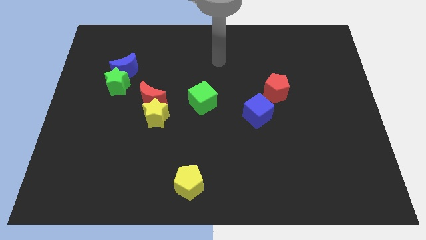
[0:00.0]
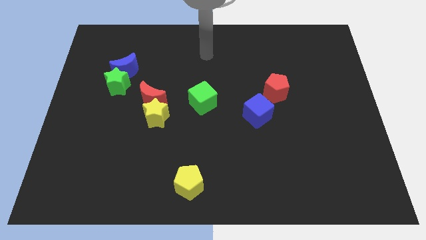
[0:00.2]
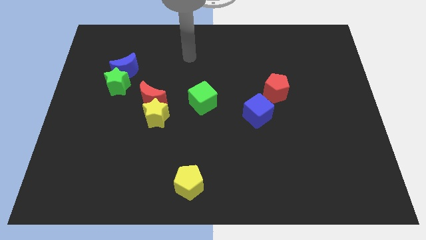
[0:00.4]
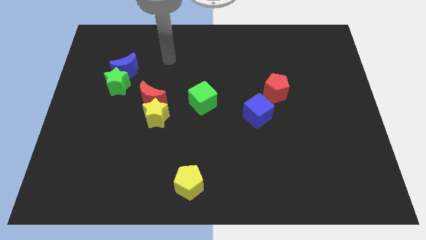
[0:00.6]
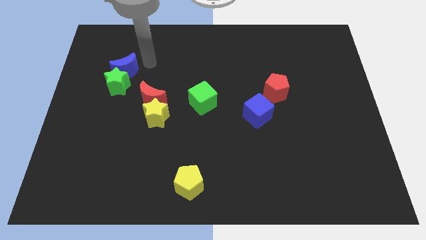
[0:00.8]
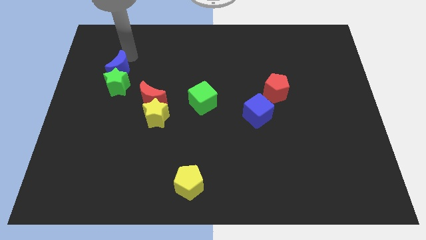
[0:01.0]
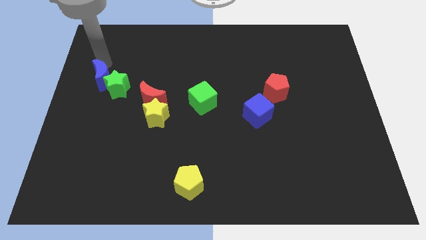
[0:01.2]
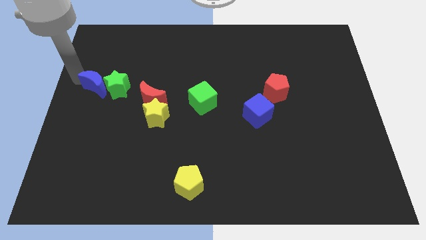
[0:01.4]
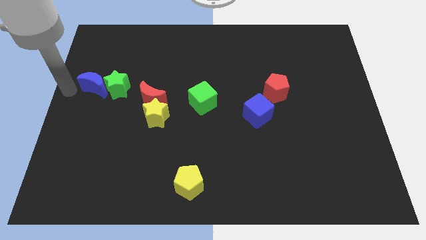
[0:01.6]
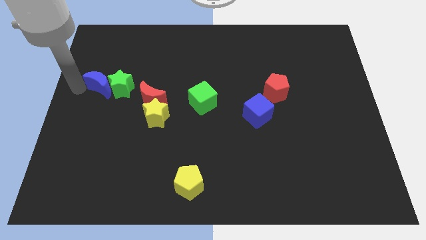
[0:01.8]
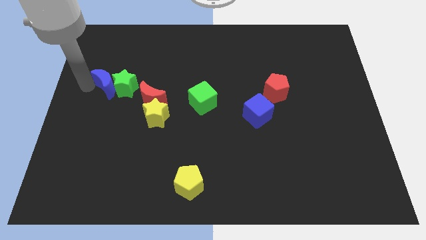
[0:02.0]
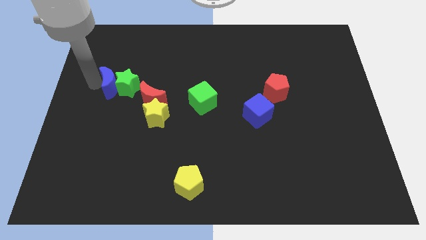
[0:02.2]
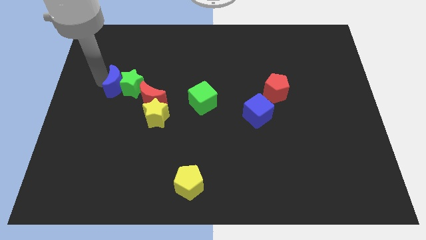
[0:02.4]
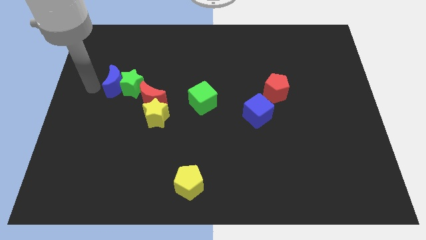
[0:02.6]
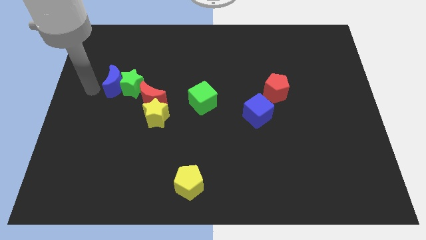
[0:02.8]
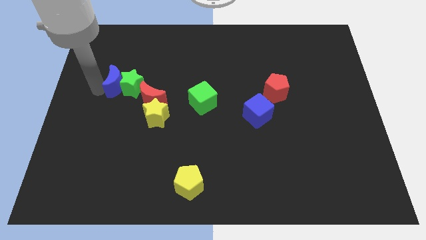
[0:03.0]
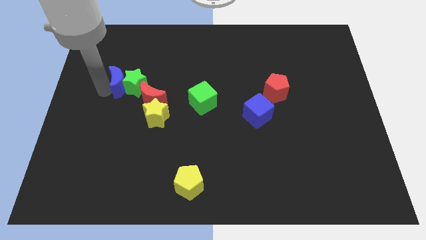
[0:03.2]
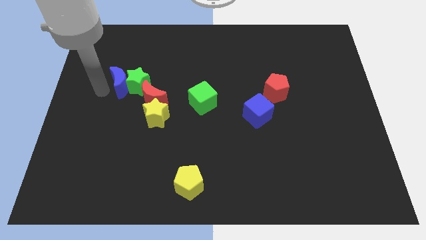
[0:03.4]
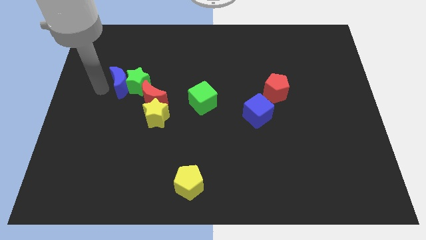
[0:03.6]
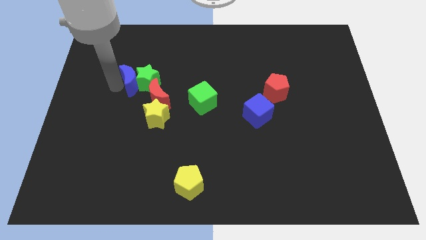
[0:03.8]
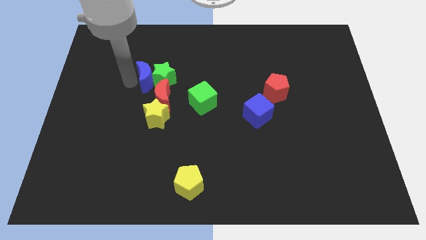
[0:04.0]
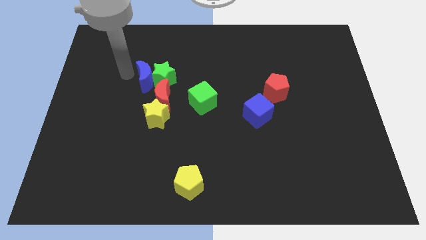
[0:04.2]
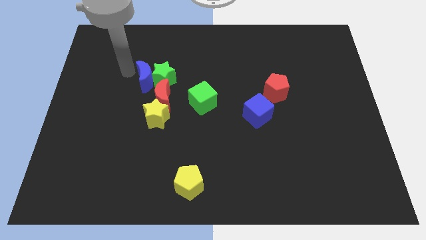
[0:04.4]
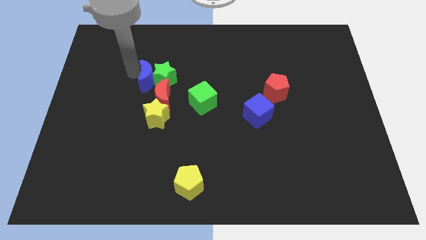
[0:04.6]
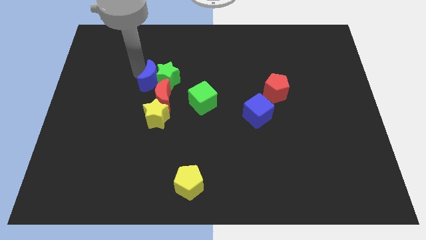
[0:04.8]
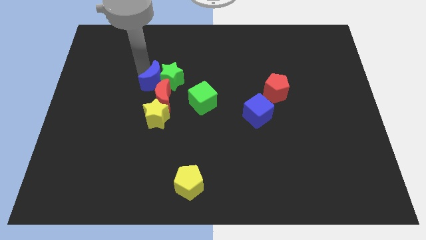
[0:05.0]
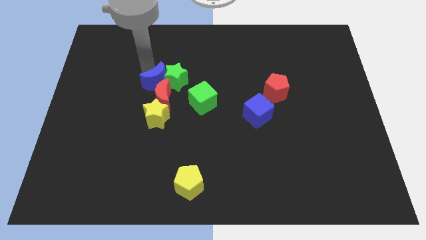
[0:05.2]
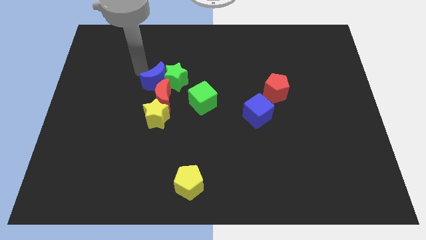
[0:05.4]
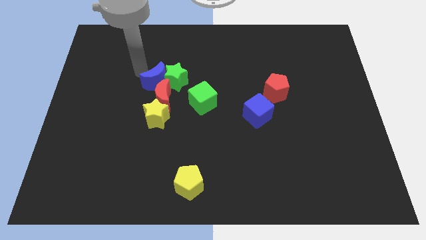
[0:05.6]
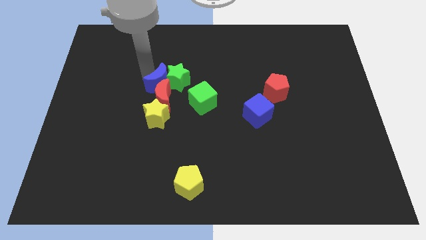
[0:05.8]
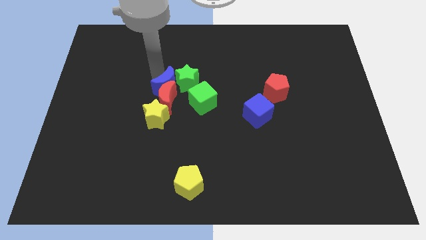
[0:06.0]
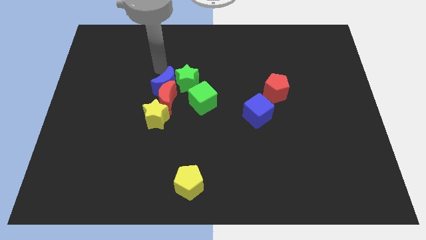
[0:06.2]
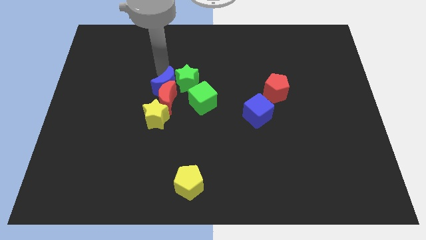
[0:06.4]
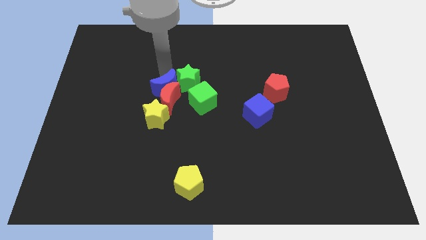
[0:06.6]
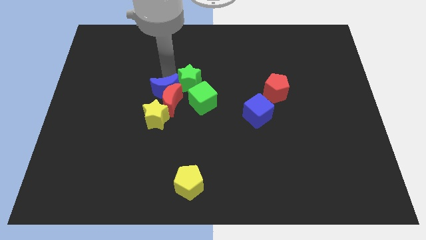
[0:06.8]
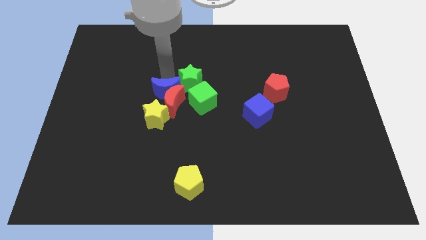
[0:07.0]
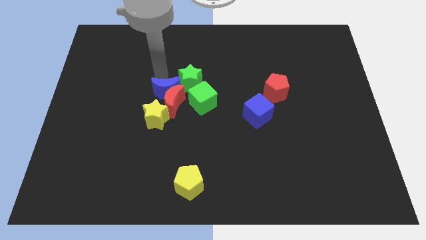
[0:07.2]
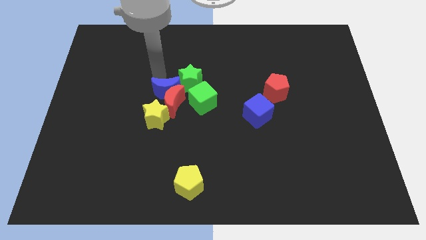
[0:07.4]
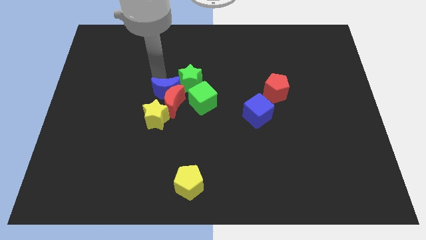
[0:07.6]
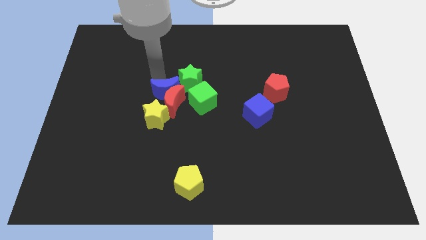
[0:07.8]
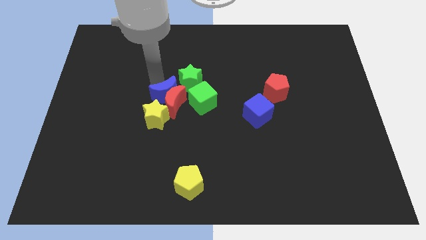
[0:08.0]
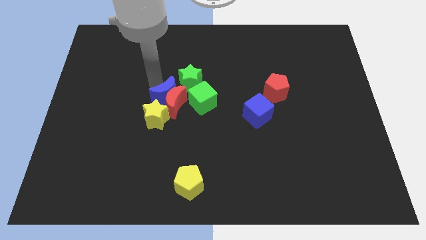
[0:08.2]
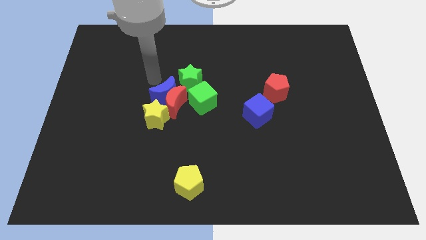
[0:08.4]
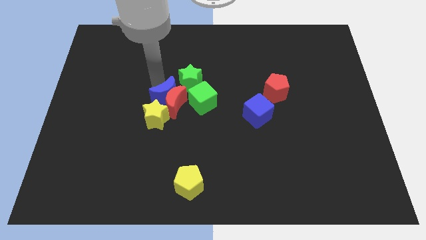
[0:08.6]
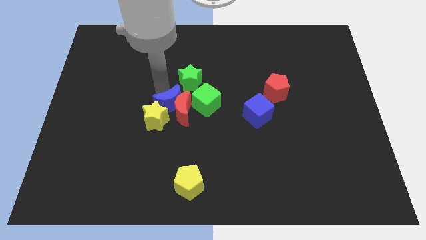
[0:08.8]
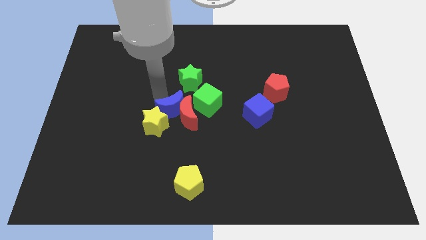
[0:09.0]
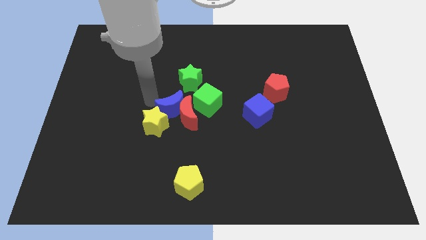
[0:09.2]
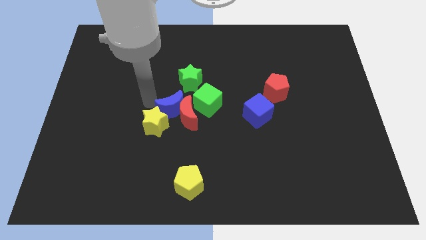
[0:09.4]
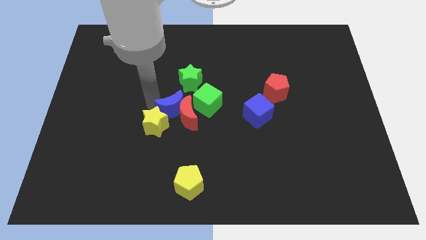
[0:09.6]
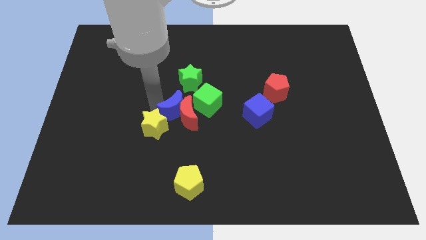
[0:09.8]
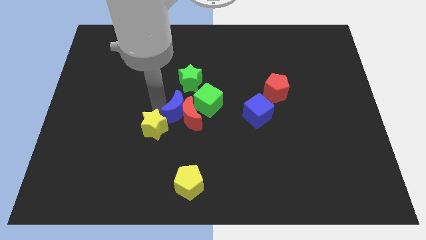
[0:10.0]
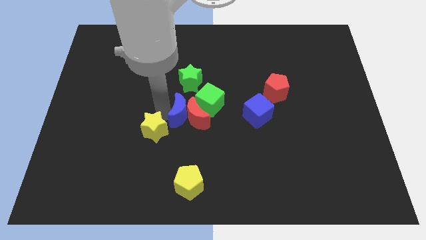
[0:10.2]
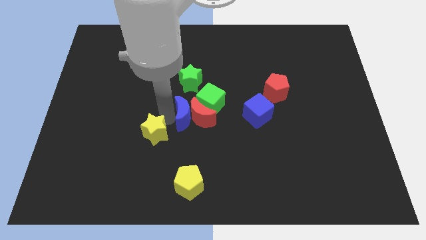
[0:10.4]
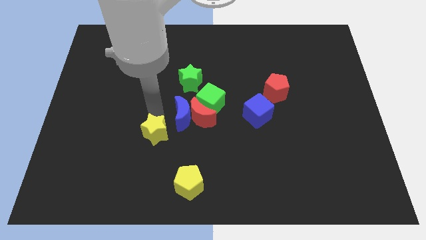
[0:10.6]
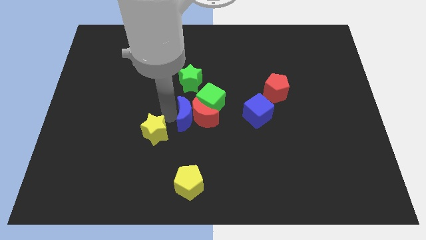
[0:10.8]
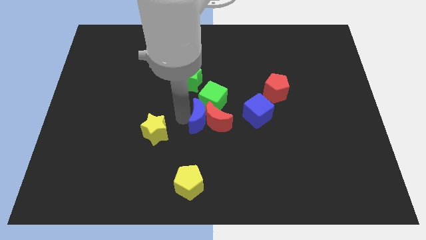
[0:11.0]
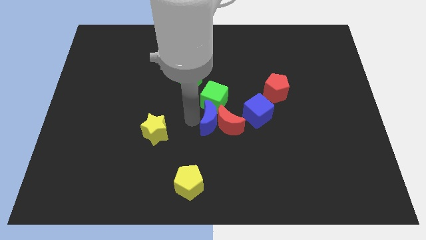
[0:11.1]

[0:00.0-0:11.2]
push the blue moon to the bottom right side of the green cube

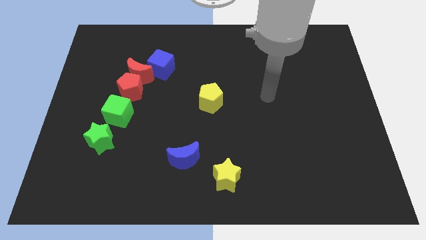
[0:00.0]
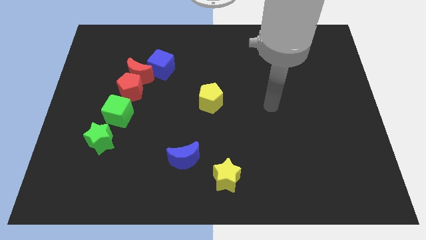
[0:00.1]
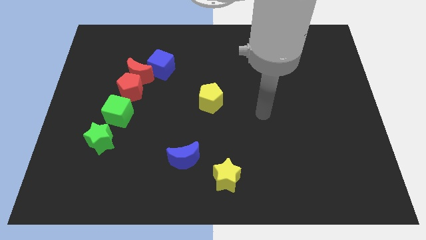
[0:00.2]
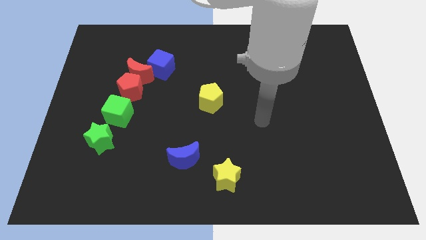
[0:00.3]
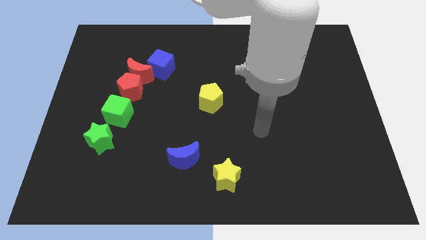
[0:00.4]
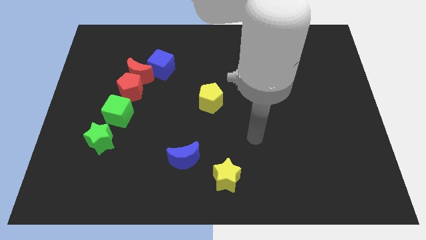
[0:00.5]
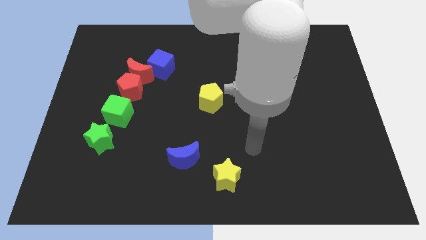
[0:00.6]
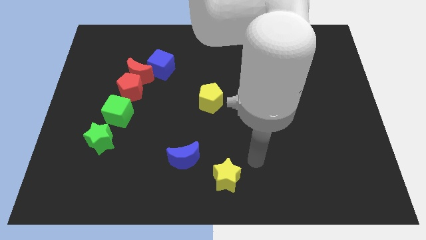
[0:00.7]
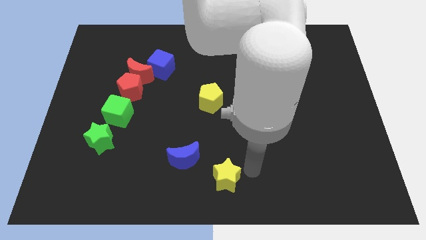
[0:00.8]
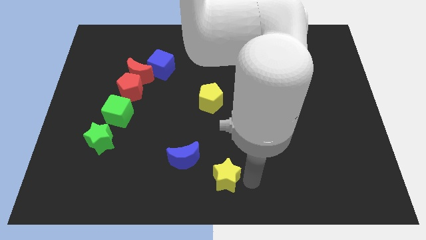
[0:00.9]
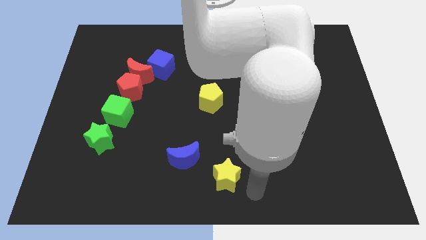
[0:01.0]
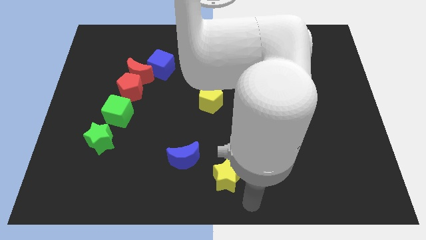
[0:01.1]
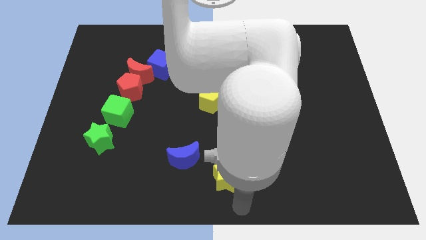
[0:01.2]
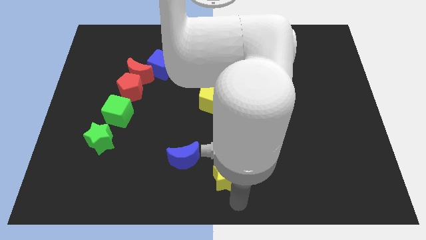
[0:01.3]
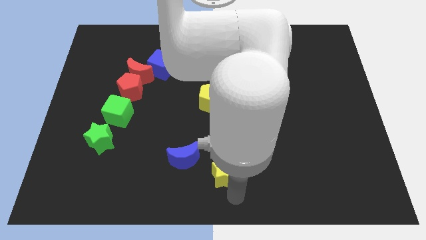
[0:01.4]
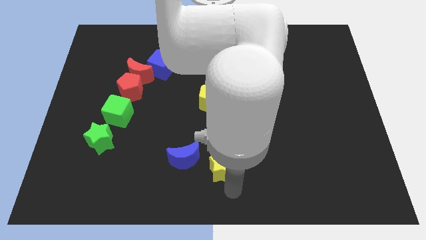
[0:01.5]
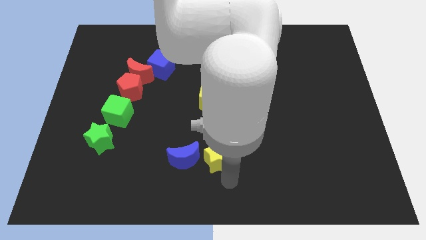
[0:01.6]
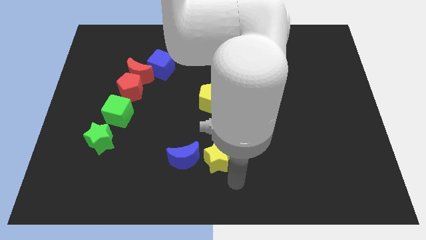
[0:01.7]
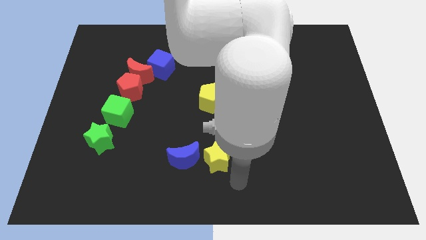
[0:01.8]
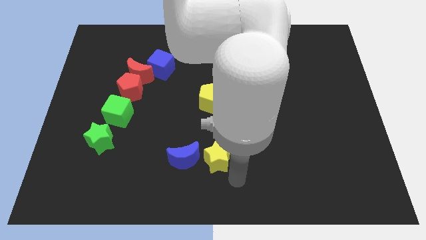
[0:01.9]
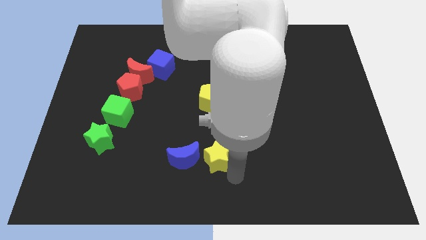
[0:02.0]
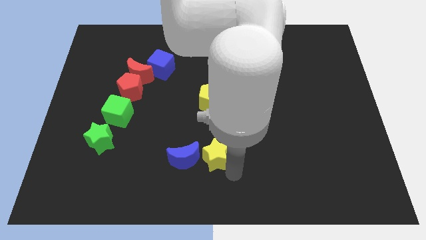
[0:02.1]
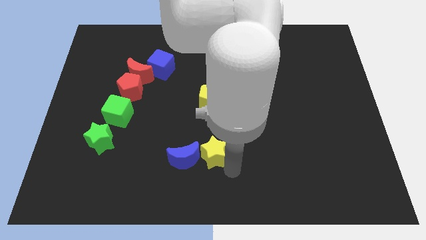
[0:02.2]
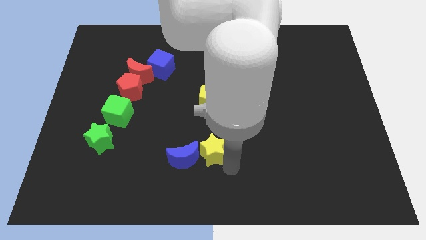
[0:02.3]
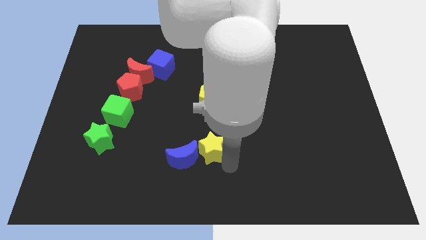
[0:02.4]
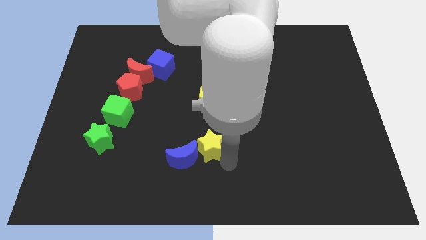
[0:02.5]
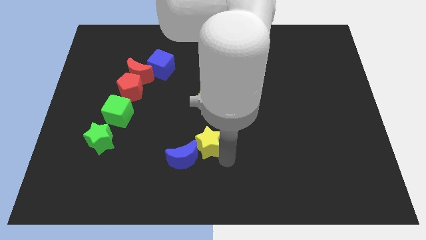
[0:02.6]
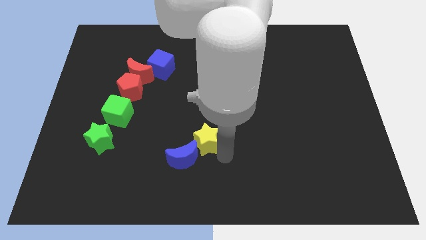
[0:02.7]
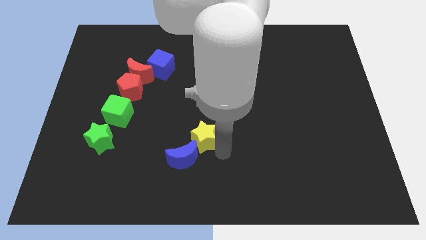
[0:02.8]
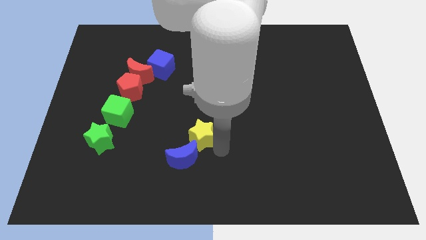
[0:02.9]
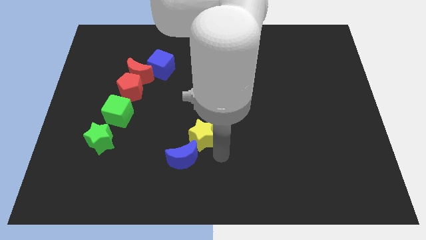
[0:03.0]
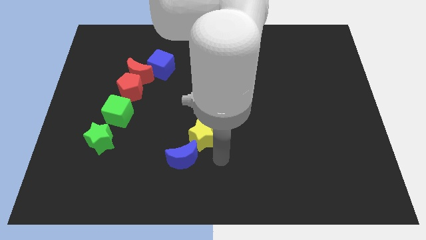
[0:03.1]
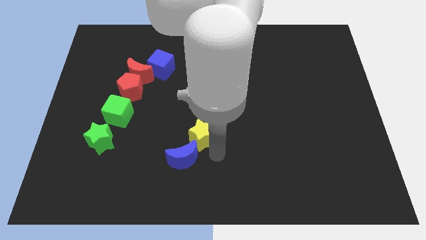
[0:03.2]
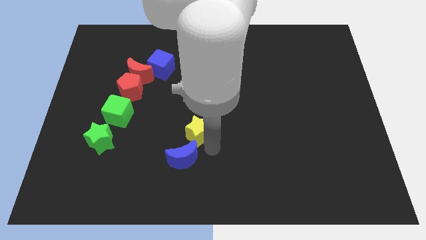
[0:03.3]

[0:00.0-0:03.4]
put the yellow star to the bottom left of the yellow pentagon
